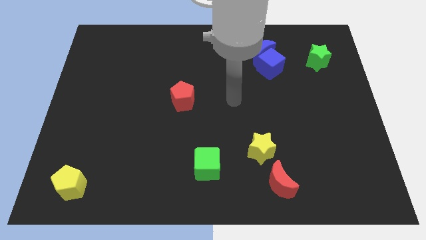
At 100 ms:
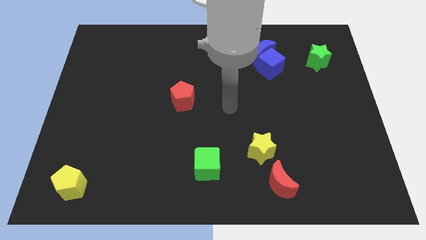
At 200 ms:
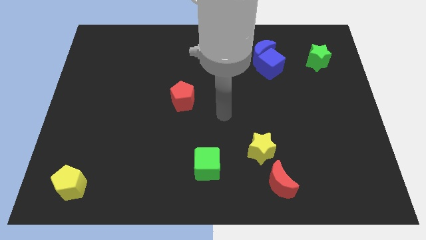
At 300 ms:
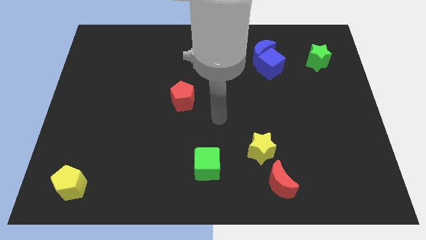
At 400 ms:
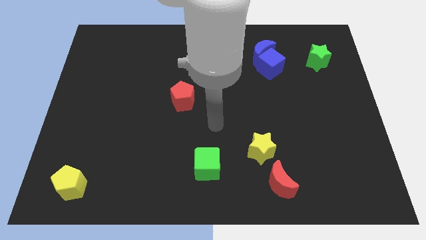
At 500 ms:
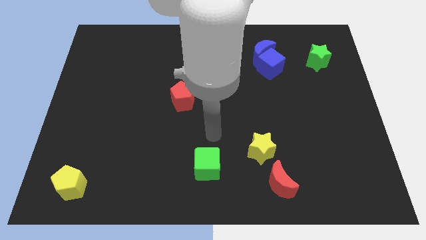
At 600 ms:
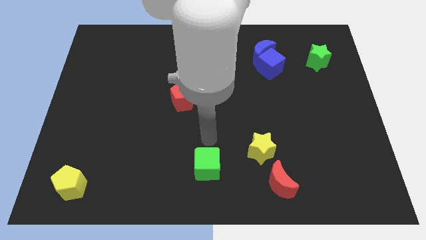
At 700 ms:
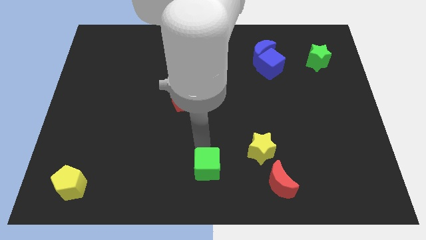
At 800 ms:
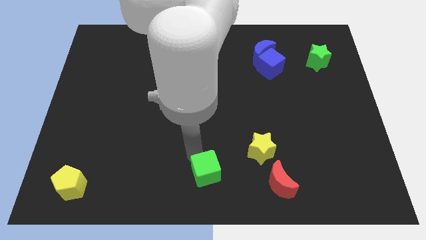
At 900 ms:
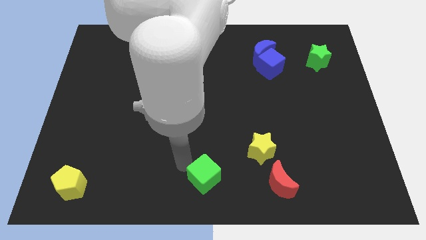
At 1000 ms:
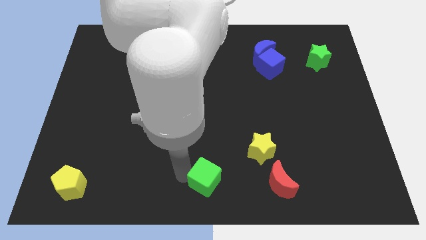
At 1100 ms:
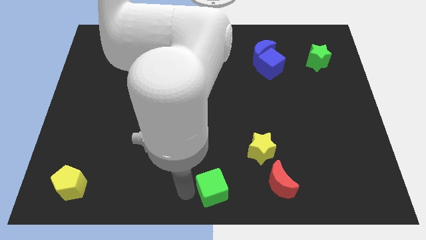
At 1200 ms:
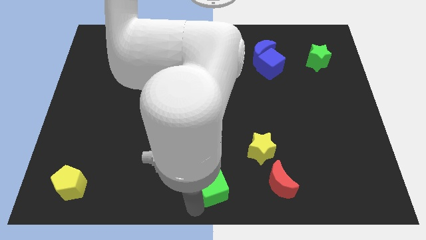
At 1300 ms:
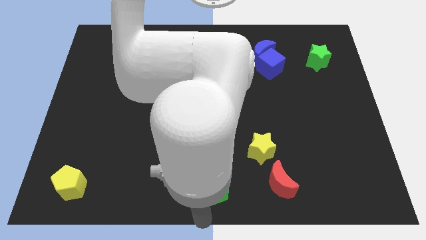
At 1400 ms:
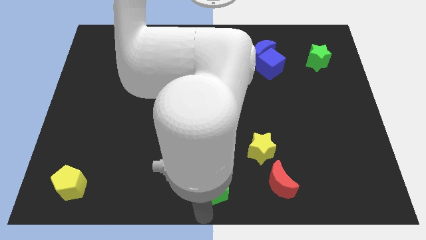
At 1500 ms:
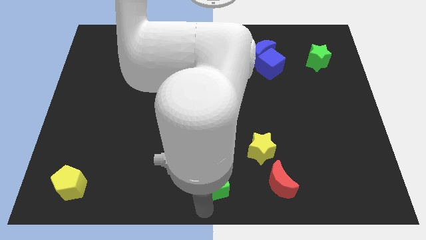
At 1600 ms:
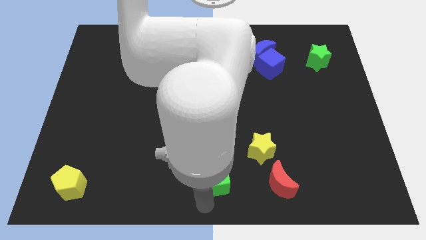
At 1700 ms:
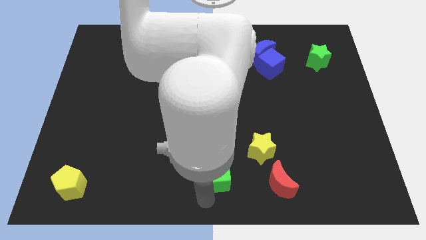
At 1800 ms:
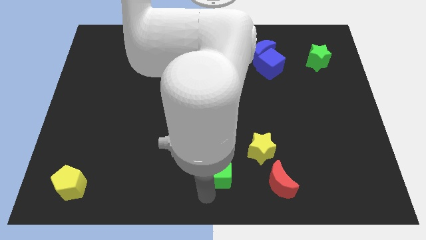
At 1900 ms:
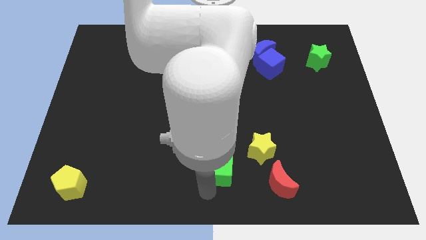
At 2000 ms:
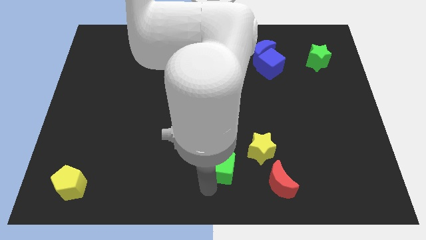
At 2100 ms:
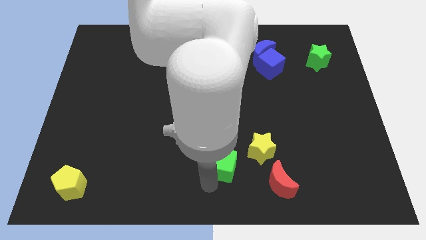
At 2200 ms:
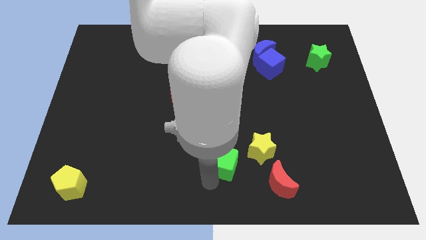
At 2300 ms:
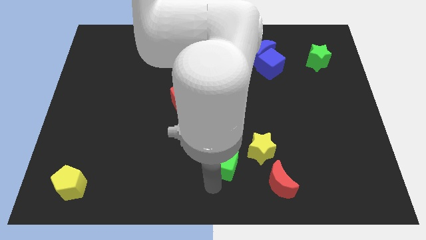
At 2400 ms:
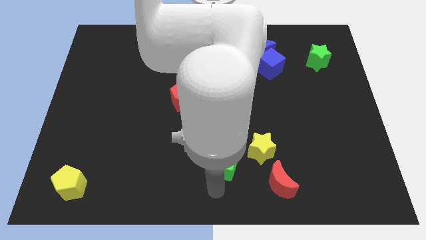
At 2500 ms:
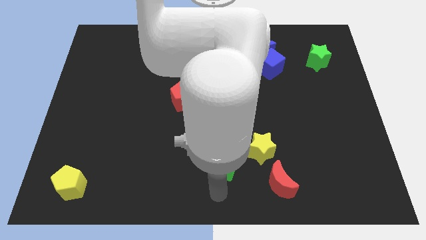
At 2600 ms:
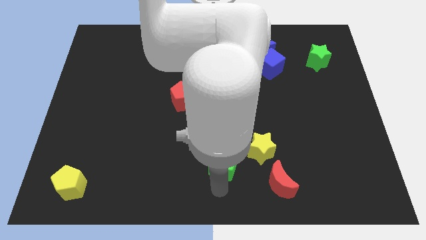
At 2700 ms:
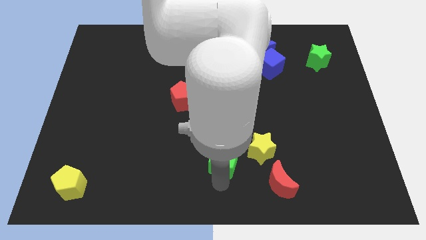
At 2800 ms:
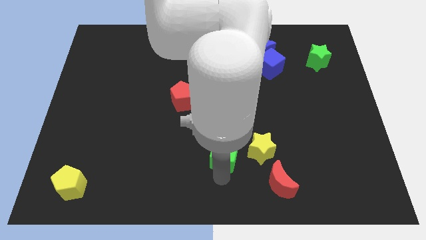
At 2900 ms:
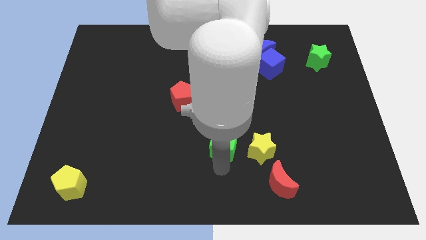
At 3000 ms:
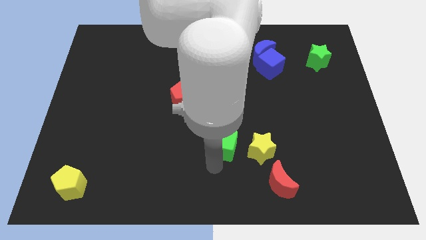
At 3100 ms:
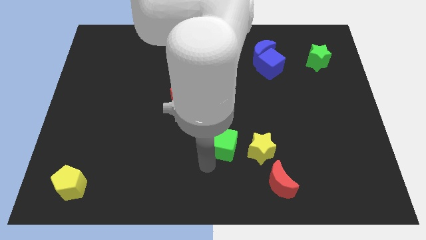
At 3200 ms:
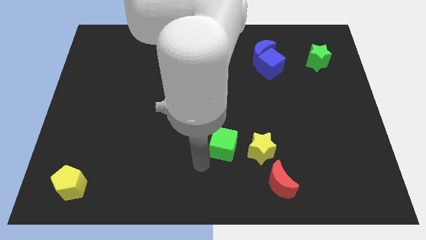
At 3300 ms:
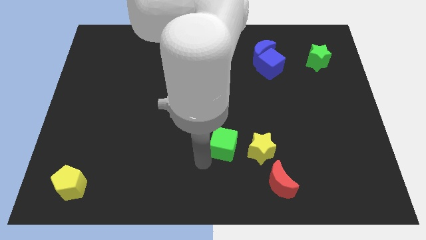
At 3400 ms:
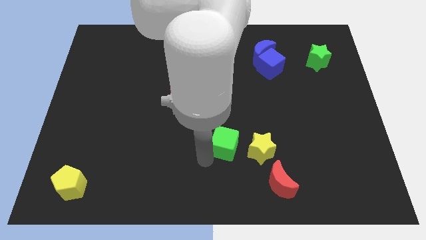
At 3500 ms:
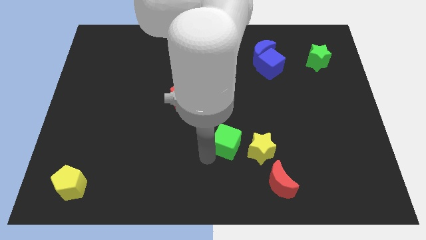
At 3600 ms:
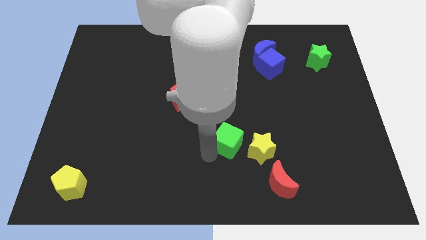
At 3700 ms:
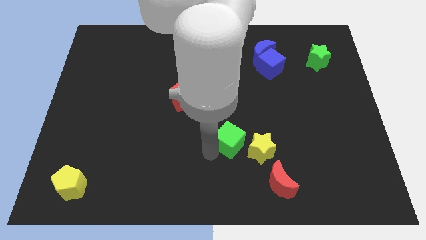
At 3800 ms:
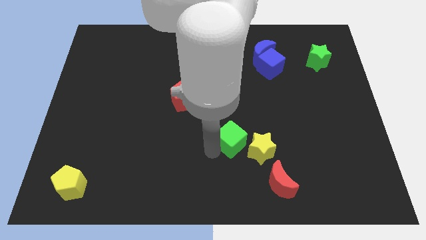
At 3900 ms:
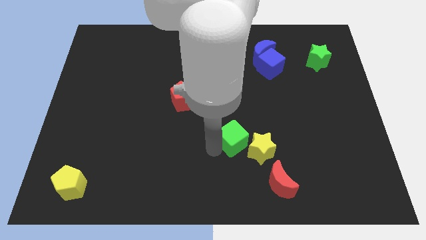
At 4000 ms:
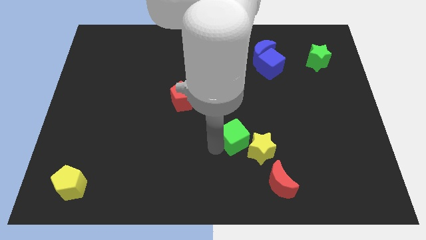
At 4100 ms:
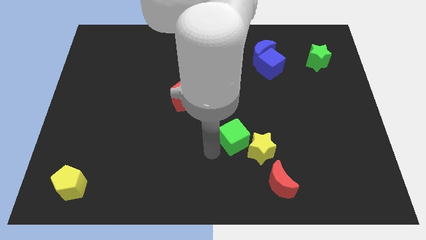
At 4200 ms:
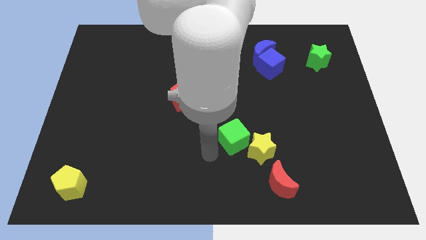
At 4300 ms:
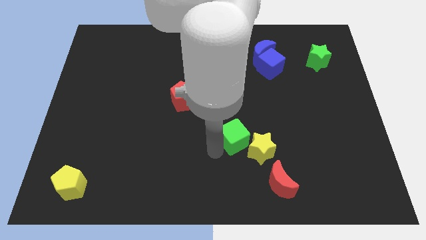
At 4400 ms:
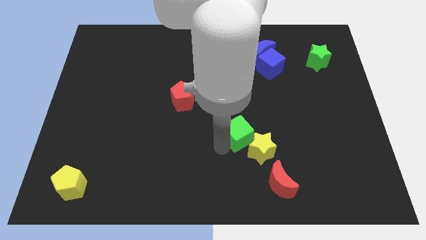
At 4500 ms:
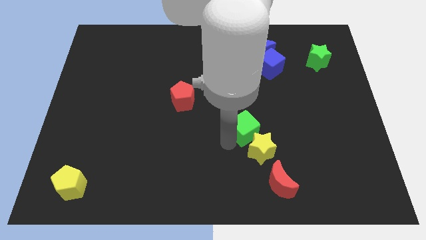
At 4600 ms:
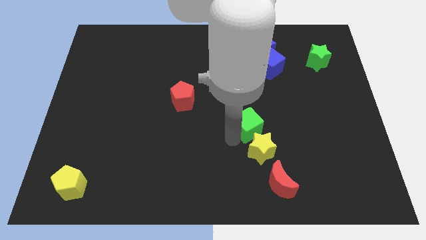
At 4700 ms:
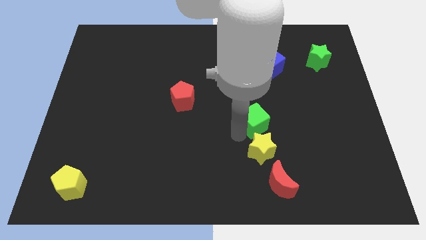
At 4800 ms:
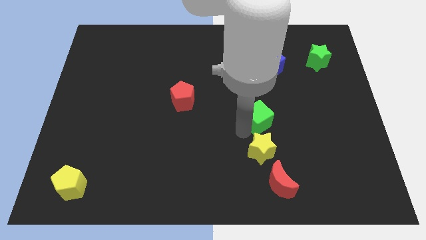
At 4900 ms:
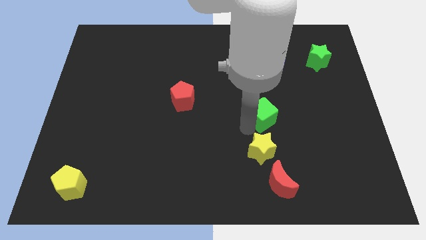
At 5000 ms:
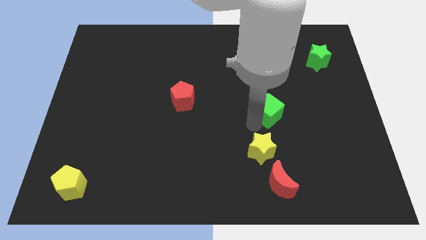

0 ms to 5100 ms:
put the green cube to the bottom side of the blue cube

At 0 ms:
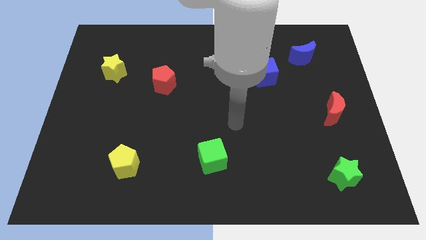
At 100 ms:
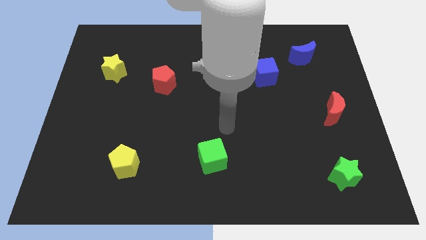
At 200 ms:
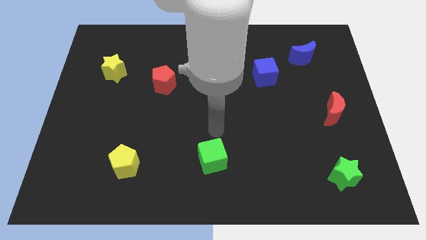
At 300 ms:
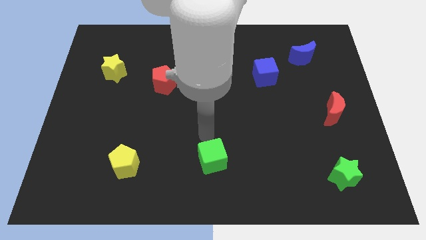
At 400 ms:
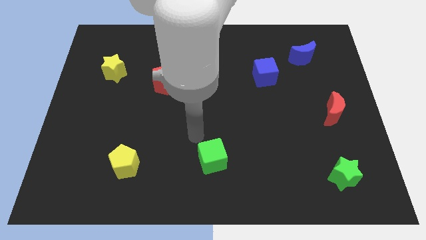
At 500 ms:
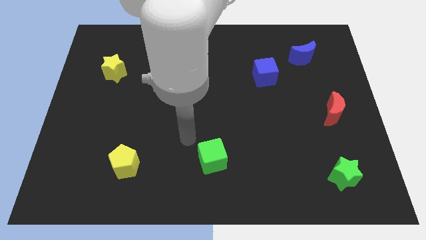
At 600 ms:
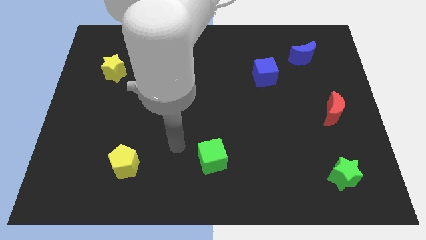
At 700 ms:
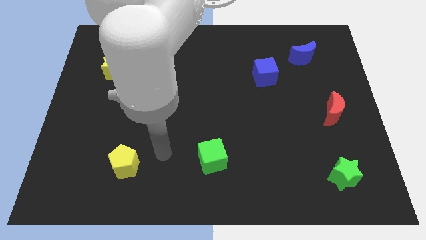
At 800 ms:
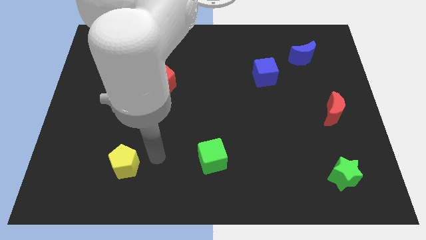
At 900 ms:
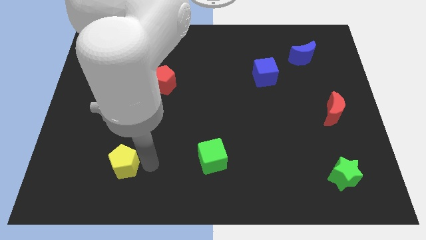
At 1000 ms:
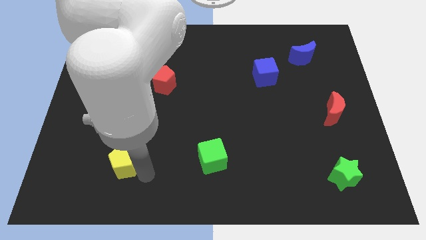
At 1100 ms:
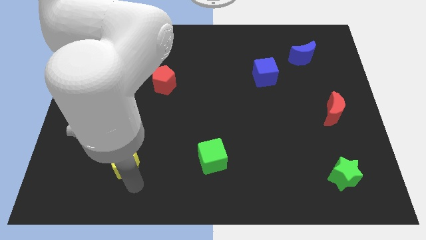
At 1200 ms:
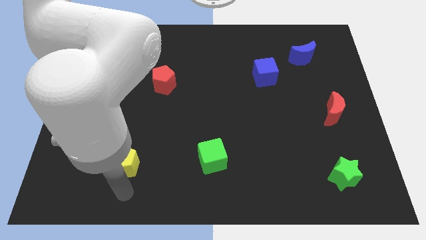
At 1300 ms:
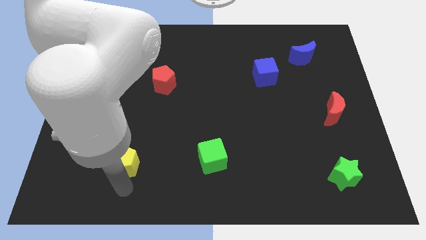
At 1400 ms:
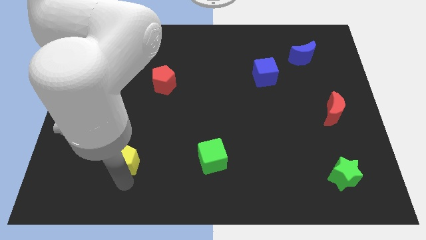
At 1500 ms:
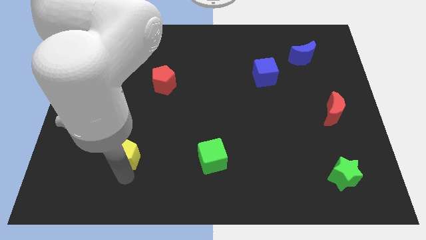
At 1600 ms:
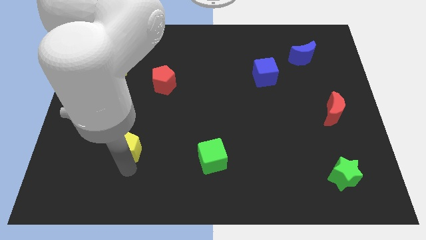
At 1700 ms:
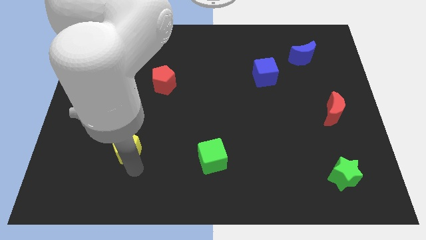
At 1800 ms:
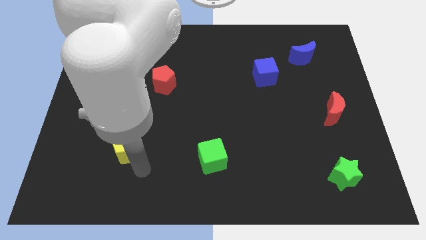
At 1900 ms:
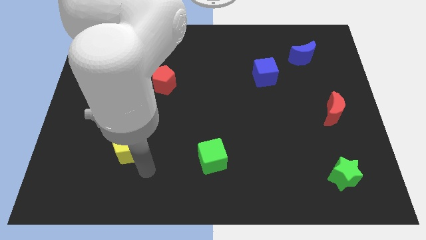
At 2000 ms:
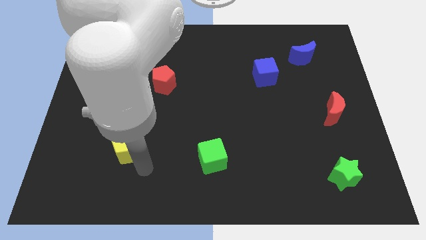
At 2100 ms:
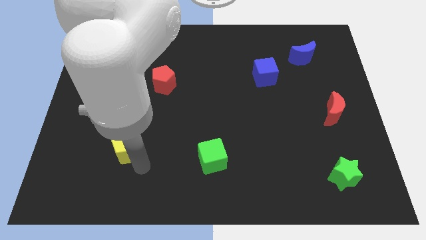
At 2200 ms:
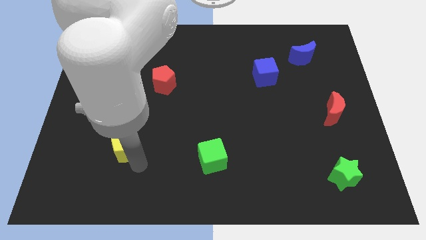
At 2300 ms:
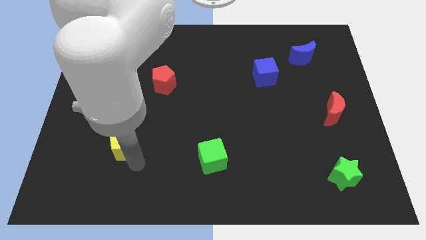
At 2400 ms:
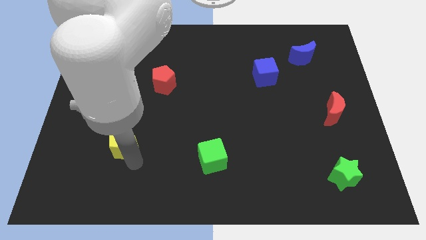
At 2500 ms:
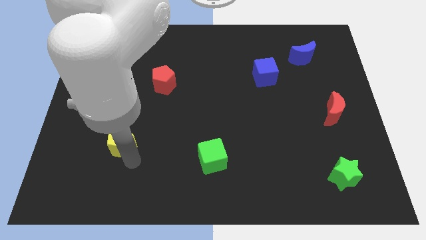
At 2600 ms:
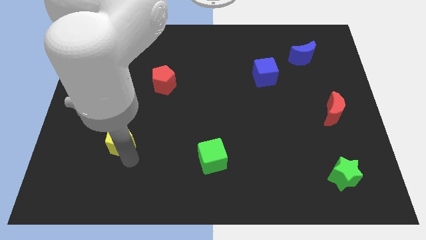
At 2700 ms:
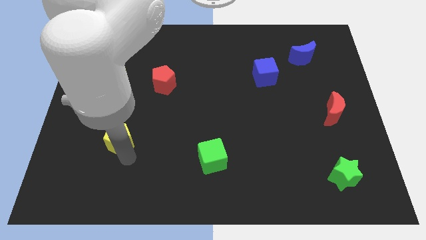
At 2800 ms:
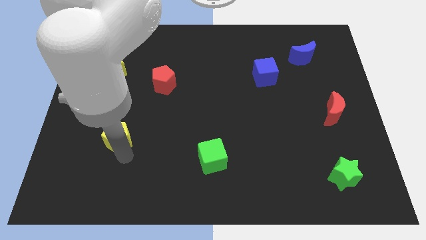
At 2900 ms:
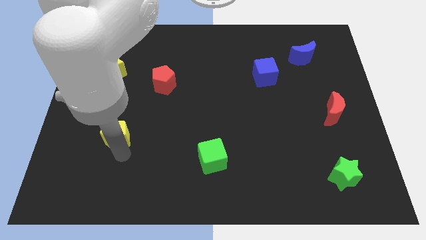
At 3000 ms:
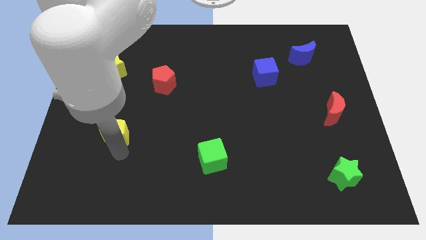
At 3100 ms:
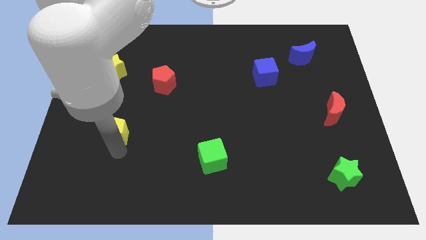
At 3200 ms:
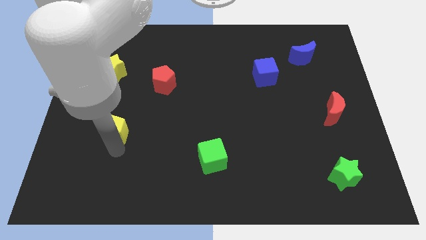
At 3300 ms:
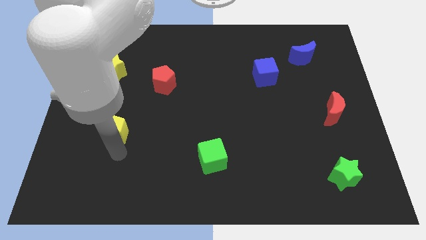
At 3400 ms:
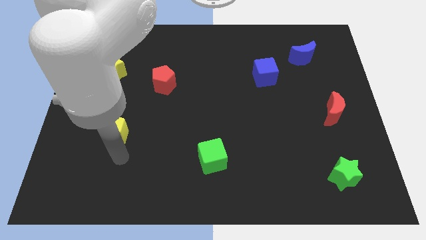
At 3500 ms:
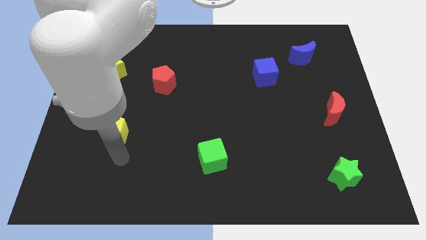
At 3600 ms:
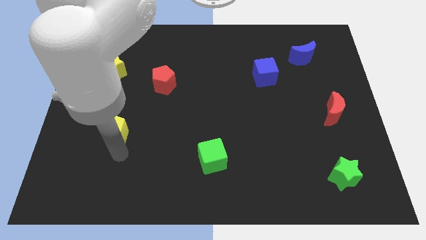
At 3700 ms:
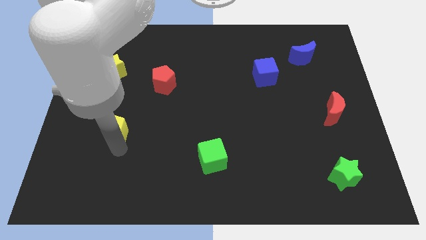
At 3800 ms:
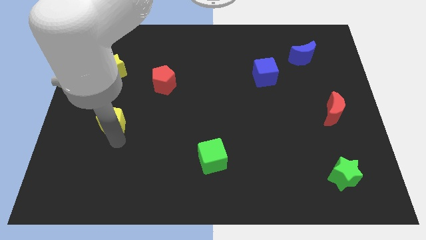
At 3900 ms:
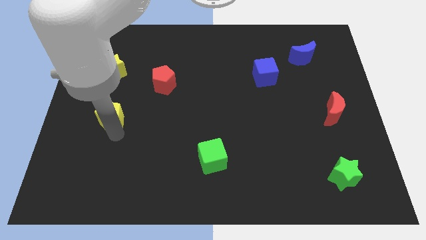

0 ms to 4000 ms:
slide the yellow pentagon to the bottom side of the yellow star
